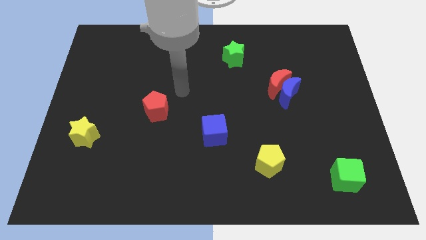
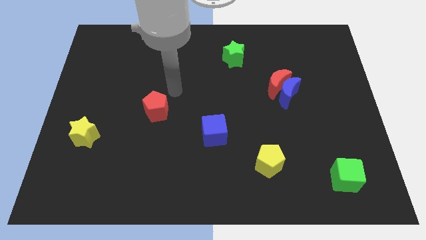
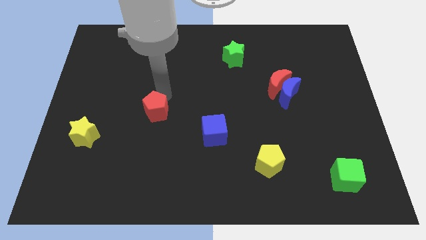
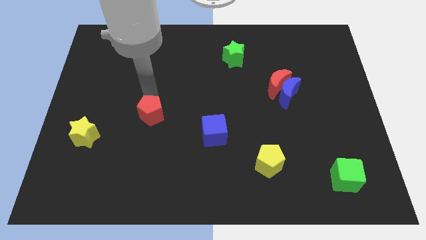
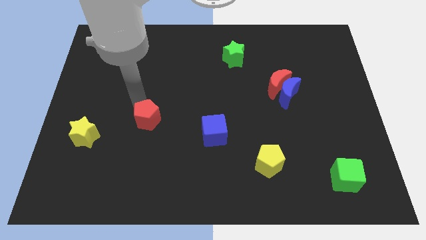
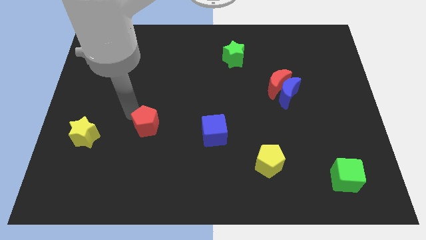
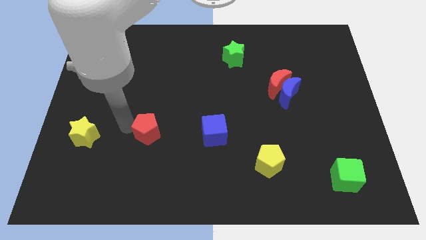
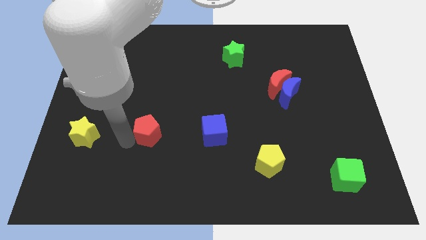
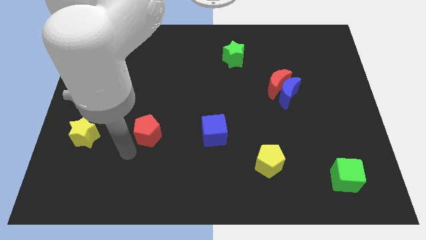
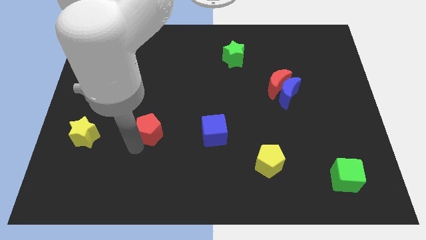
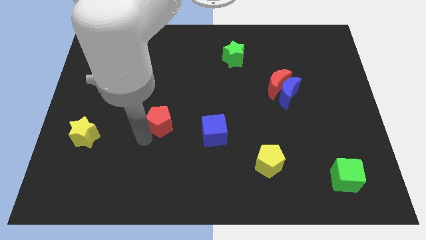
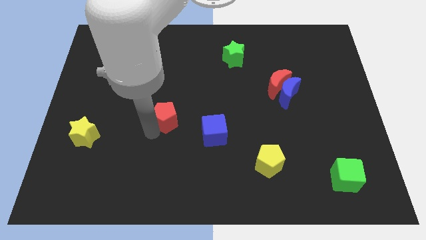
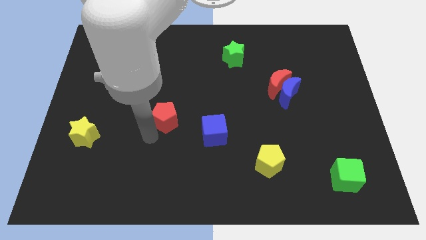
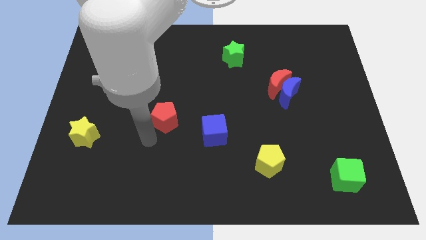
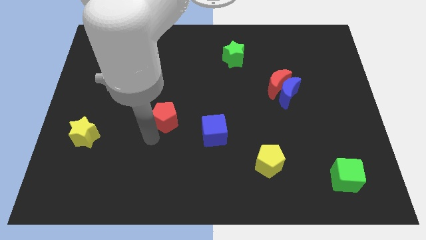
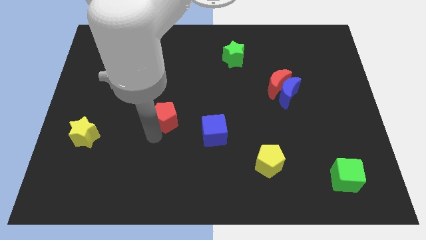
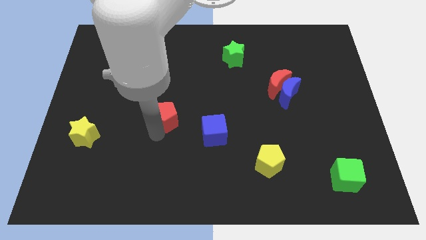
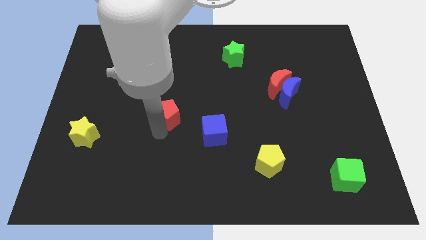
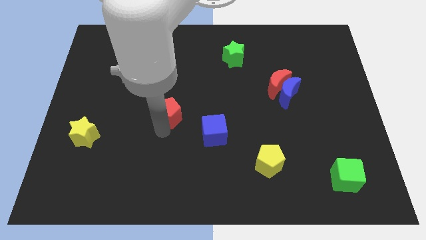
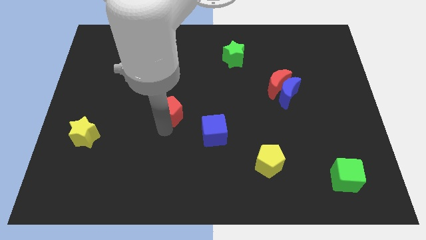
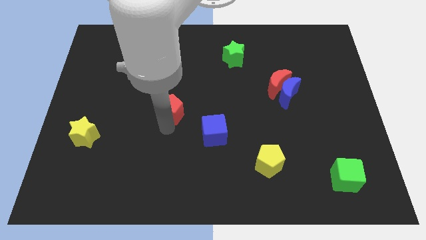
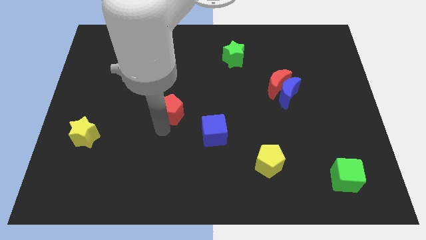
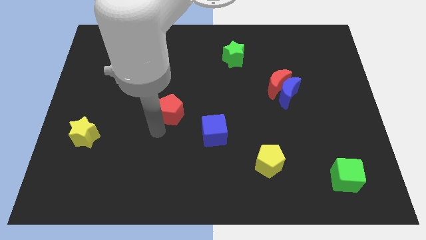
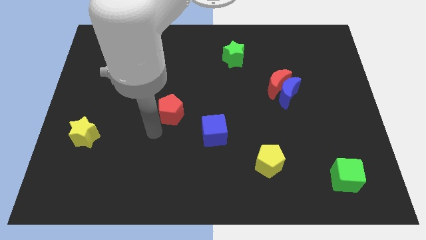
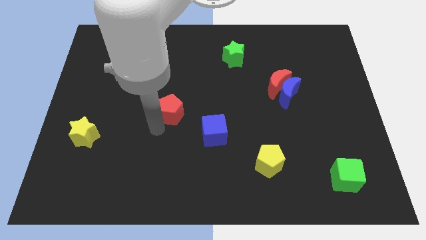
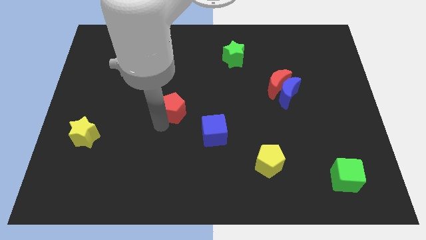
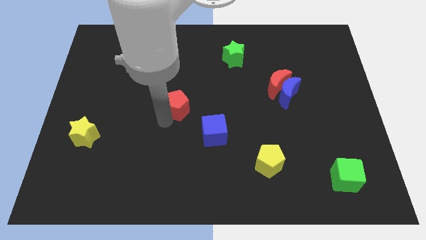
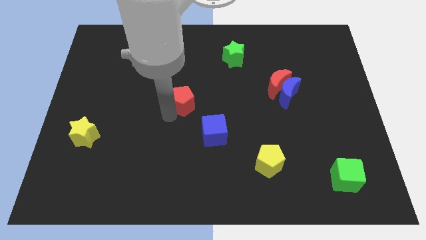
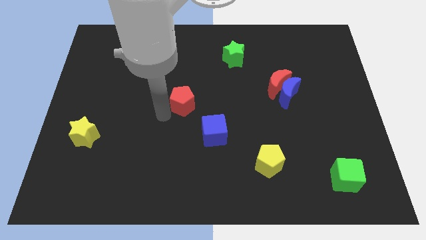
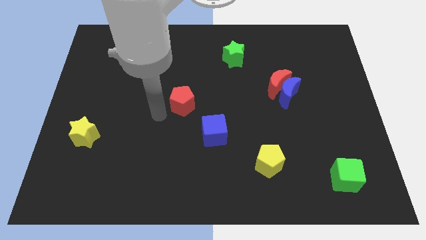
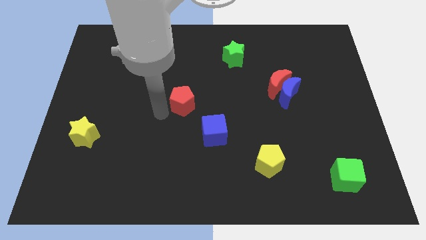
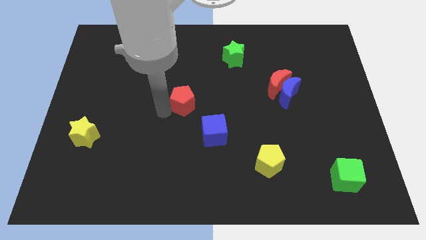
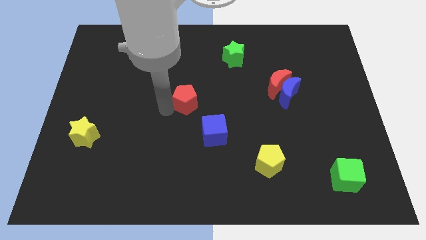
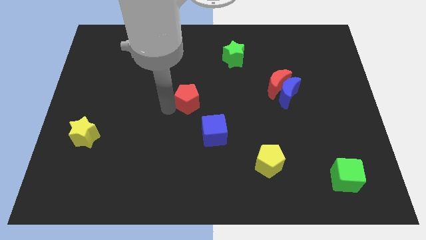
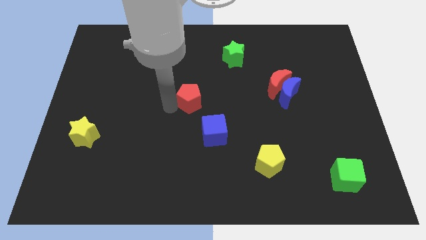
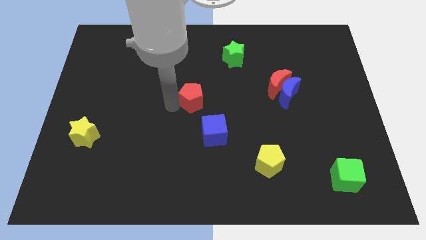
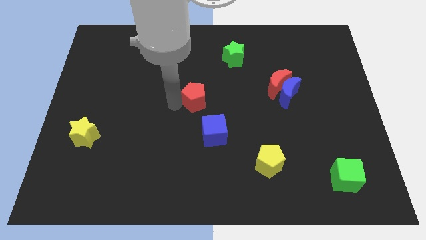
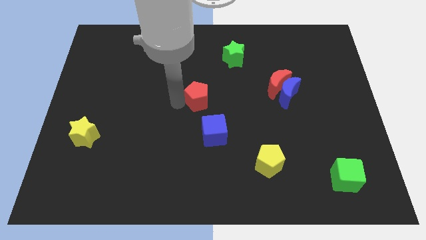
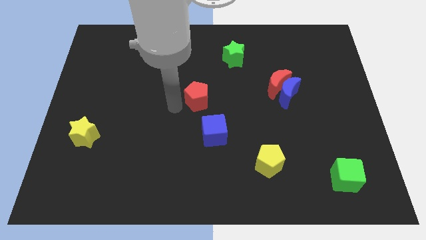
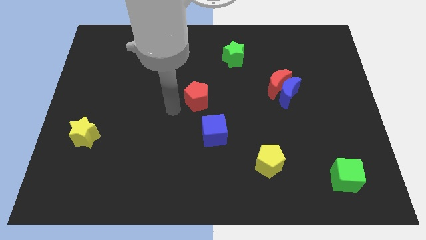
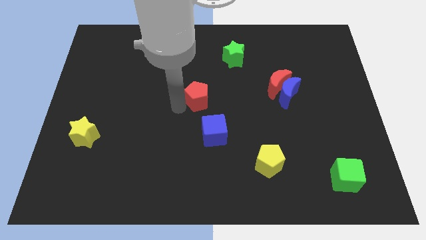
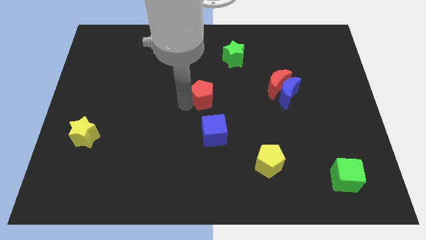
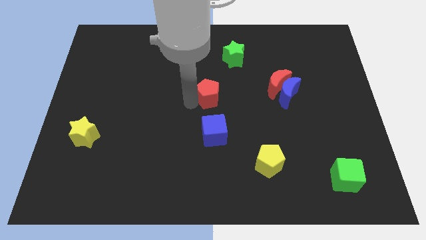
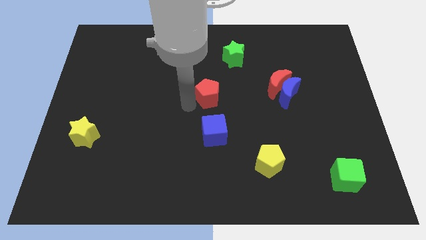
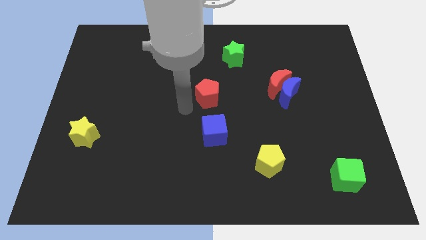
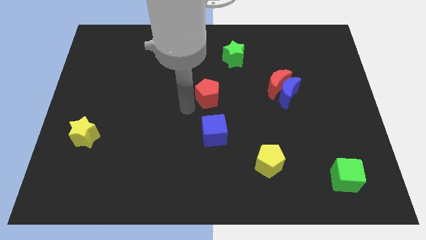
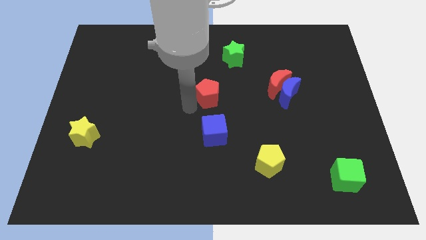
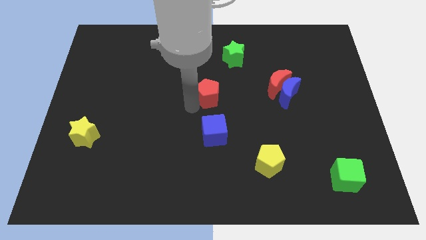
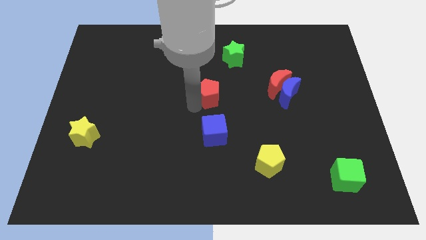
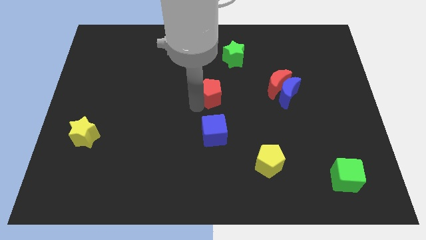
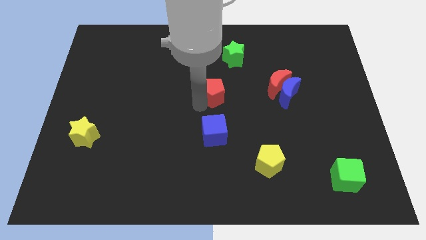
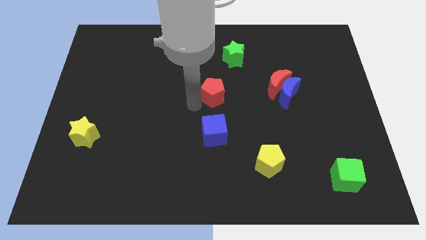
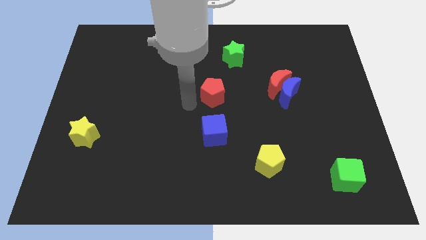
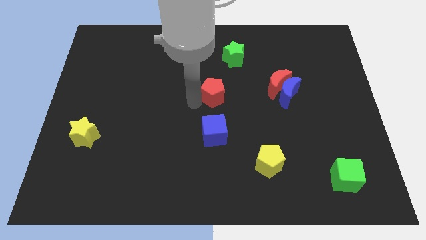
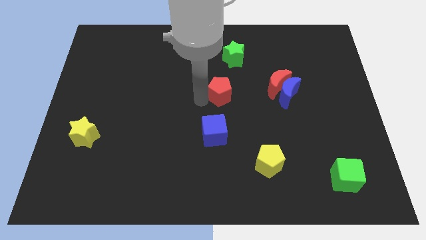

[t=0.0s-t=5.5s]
put the red pentagon to the bottom of the green star

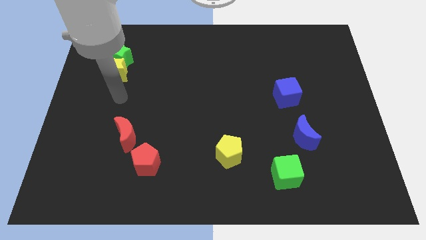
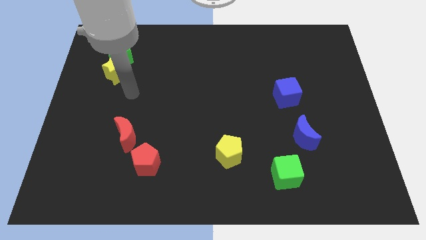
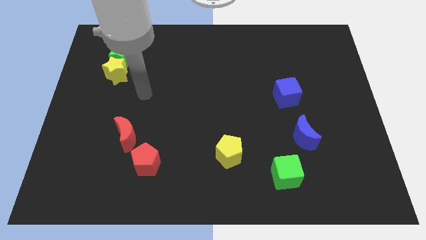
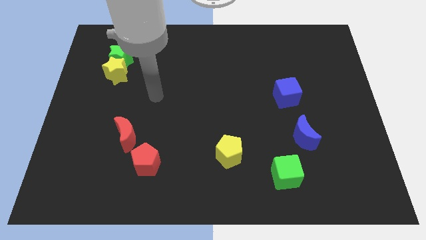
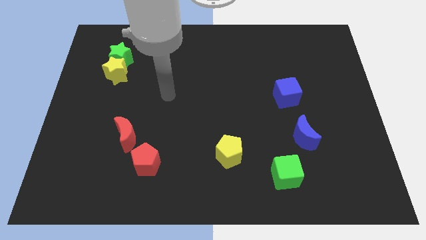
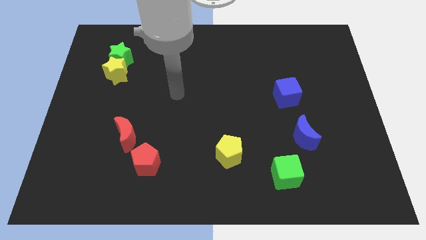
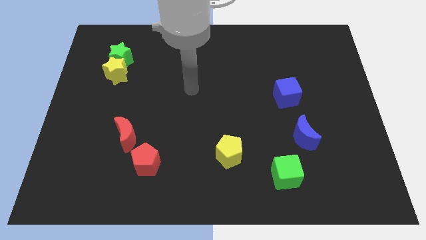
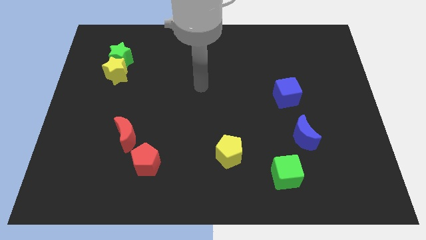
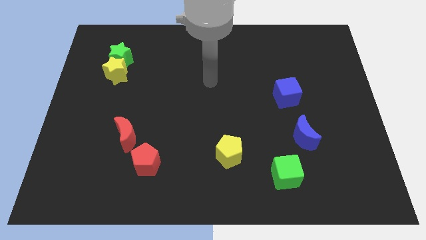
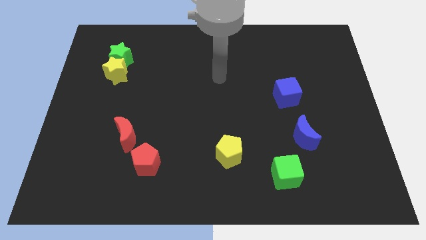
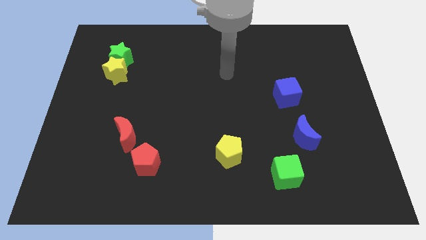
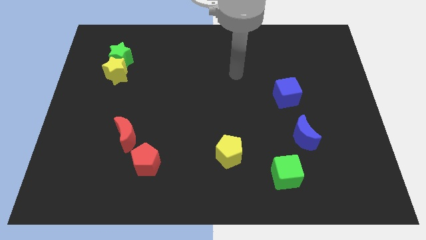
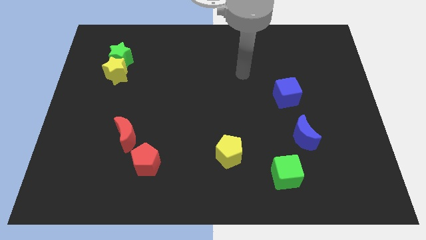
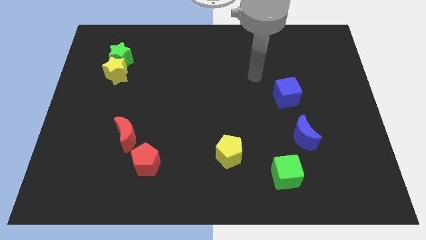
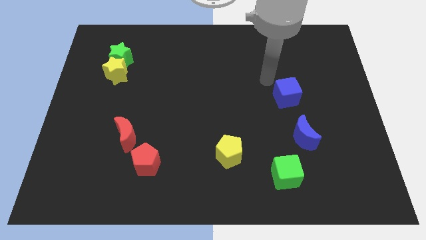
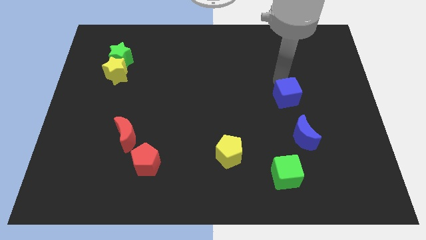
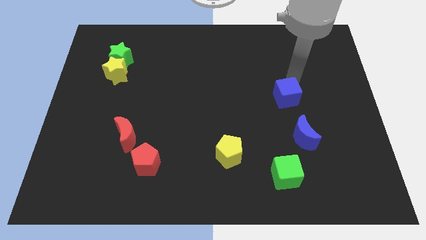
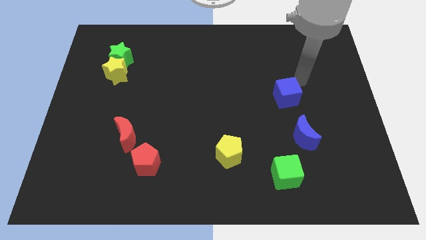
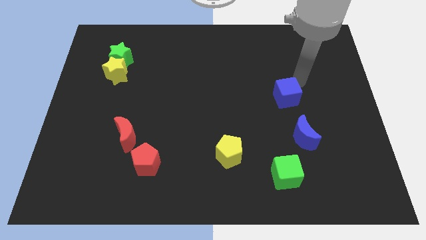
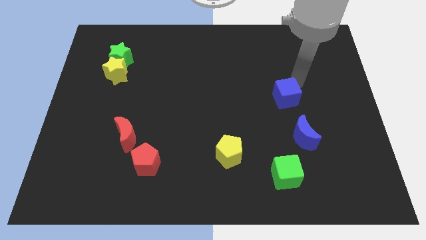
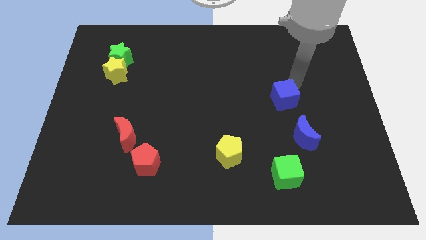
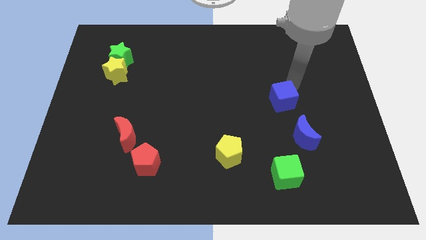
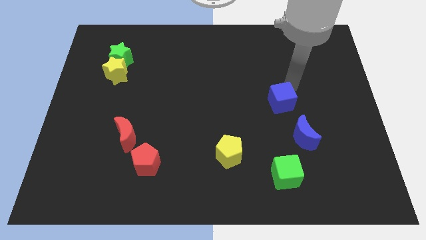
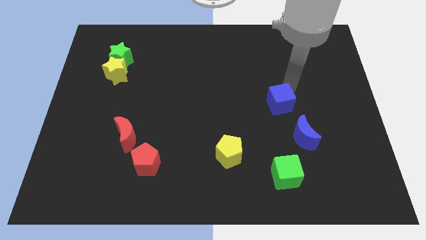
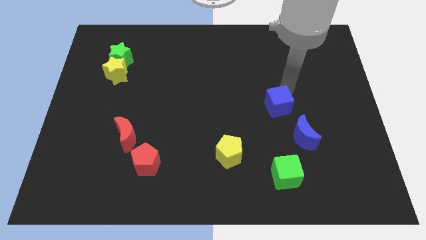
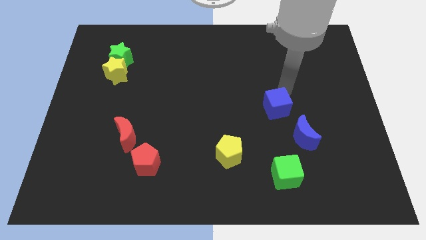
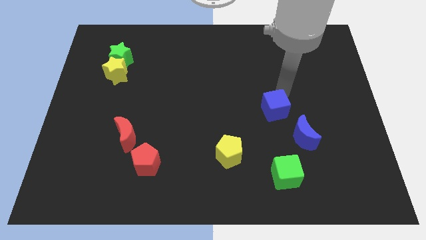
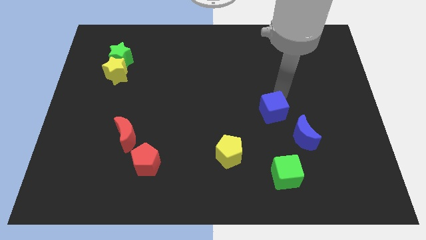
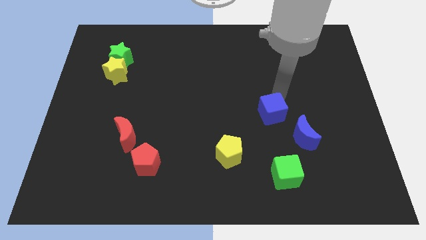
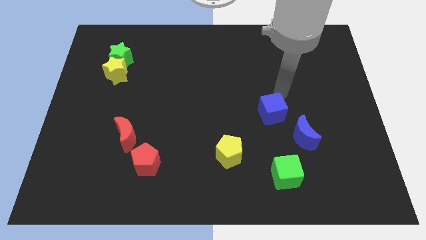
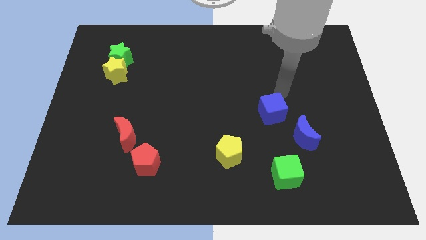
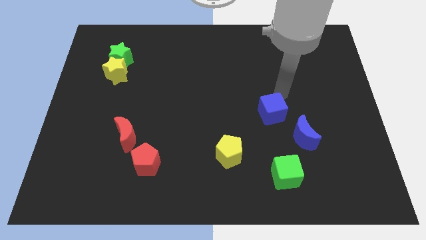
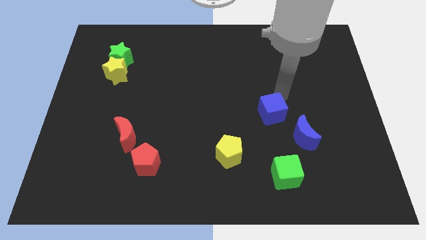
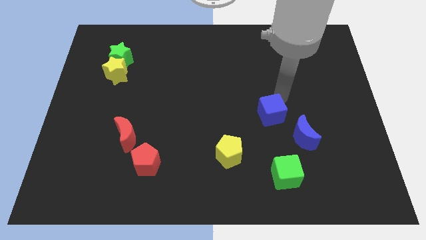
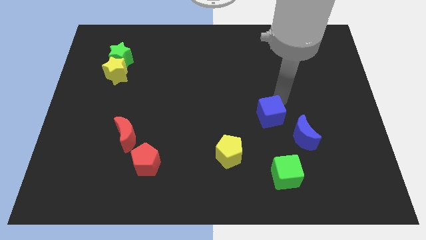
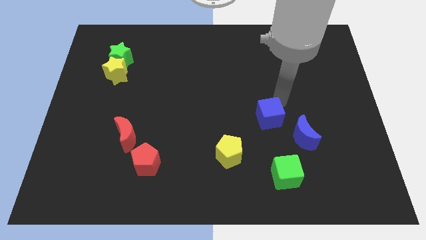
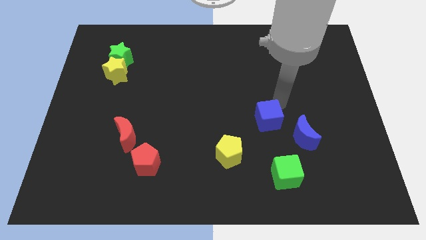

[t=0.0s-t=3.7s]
slide the blue cube to the left side of the blue moon
